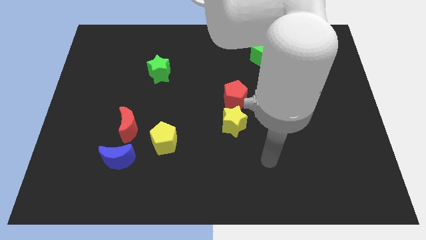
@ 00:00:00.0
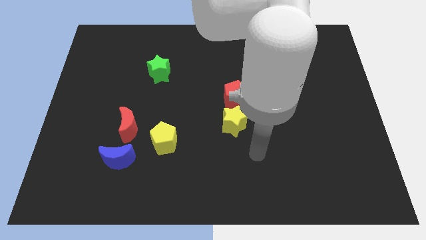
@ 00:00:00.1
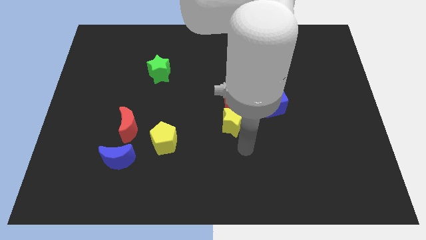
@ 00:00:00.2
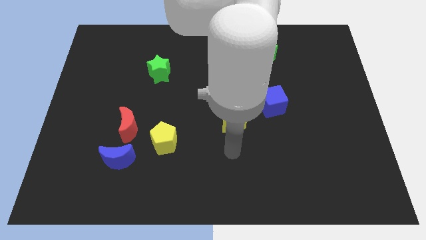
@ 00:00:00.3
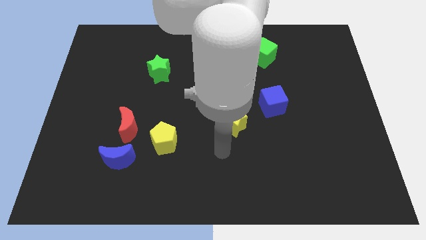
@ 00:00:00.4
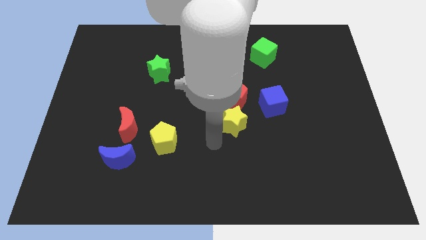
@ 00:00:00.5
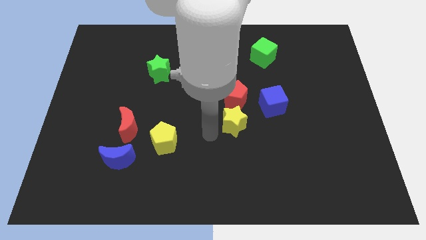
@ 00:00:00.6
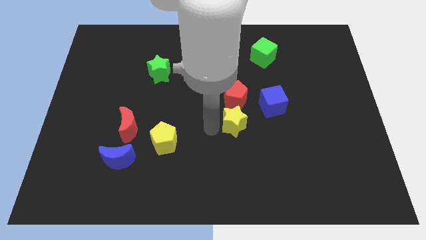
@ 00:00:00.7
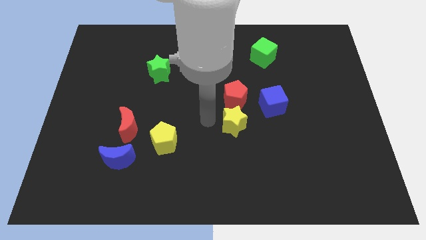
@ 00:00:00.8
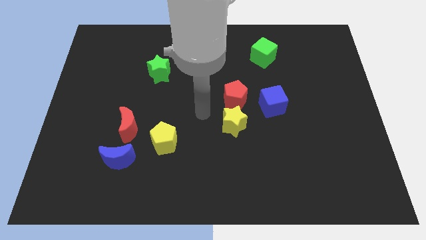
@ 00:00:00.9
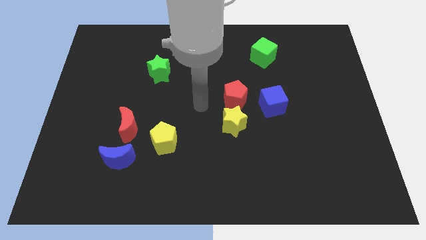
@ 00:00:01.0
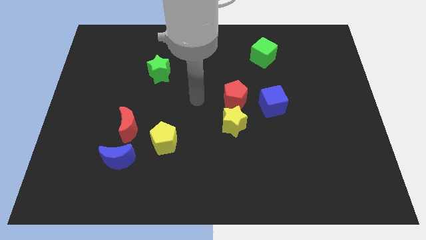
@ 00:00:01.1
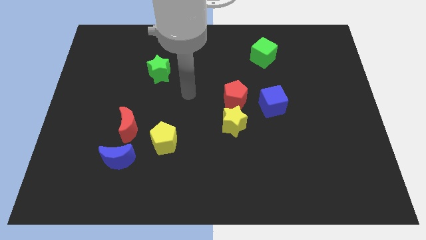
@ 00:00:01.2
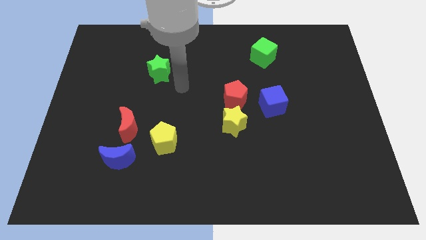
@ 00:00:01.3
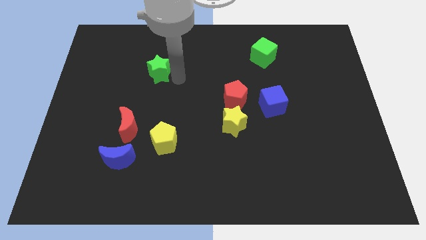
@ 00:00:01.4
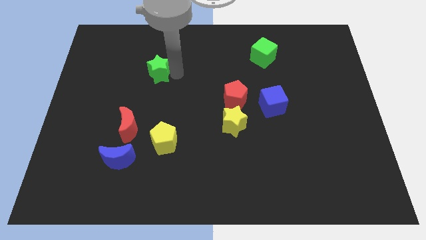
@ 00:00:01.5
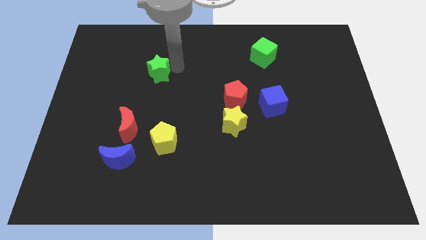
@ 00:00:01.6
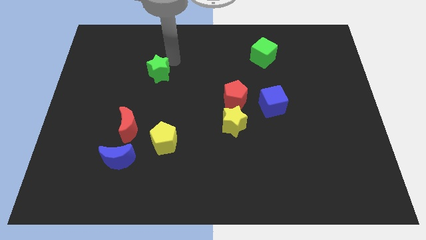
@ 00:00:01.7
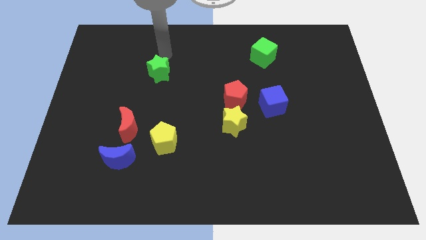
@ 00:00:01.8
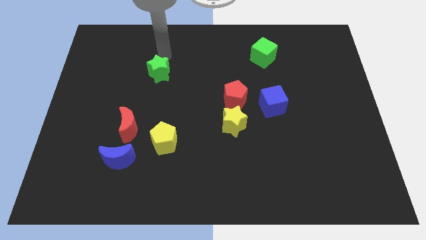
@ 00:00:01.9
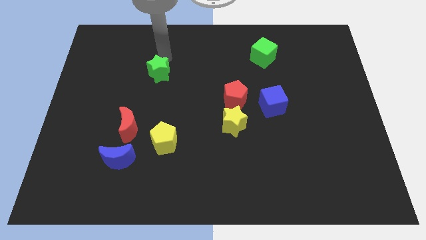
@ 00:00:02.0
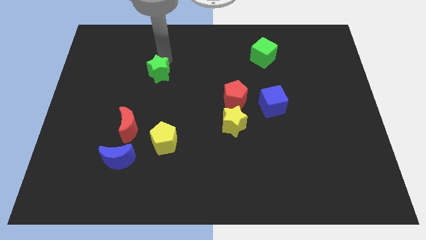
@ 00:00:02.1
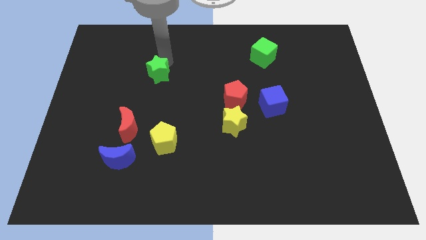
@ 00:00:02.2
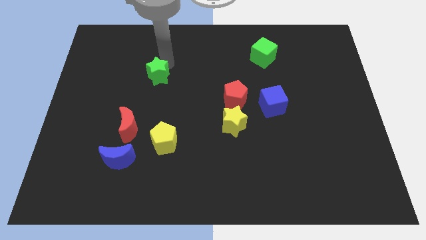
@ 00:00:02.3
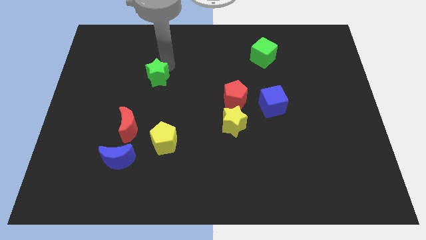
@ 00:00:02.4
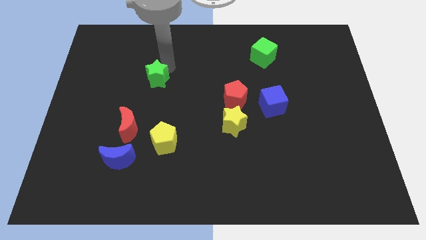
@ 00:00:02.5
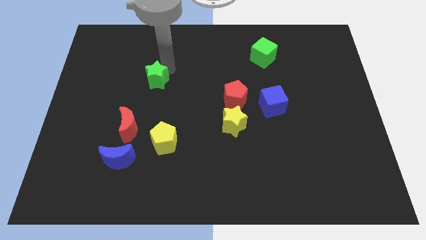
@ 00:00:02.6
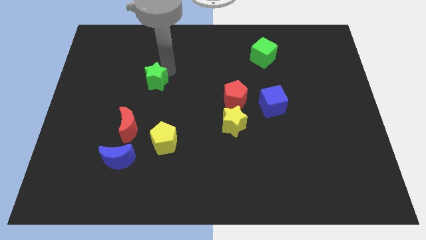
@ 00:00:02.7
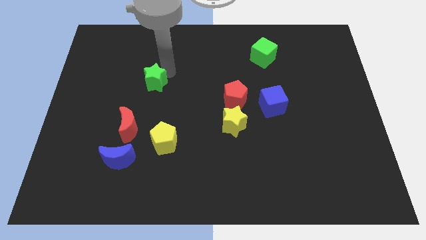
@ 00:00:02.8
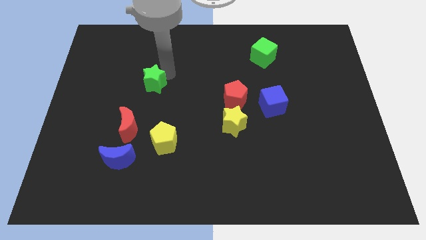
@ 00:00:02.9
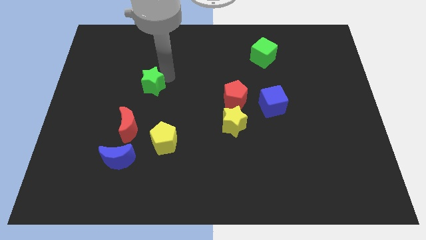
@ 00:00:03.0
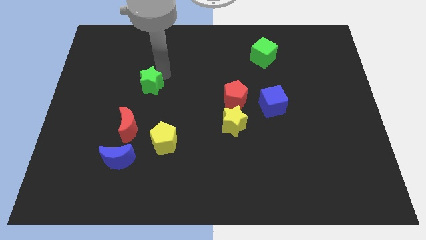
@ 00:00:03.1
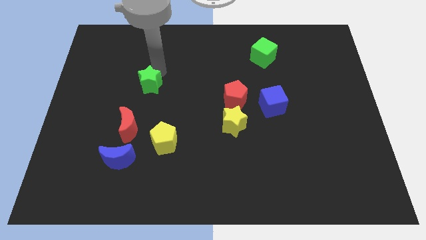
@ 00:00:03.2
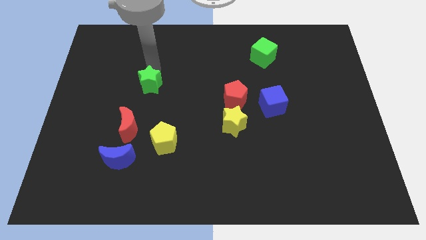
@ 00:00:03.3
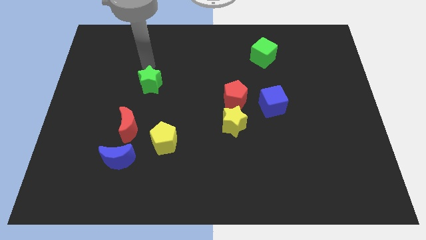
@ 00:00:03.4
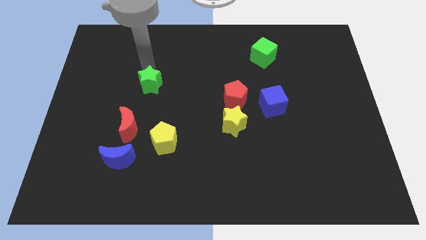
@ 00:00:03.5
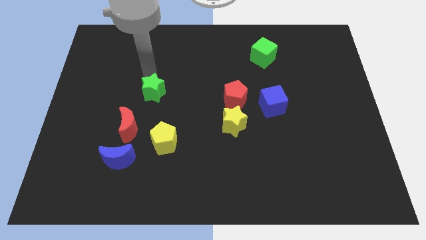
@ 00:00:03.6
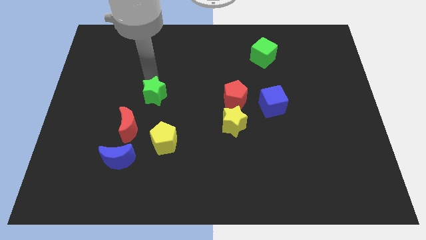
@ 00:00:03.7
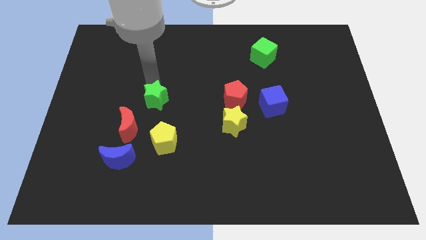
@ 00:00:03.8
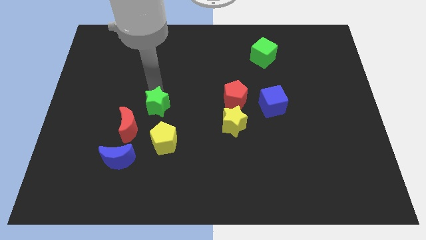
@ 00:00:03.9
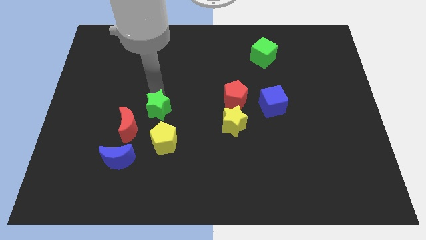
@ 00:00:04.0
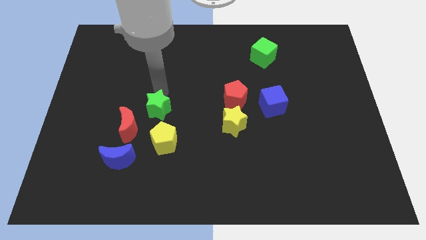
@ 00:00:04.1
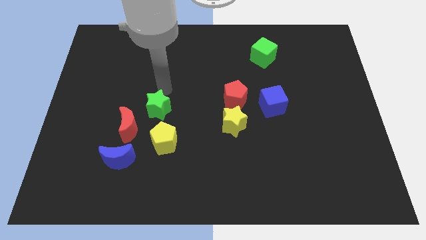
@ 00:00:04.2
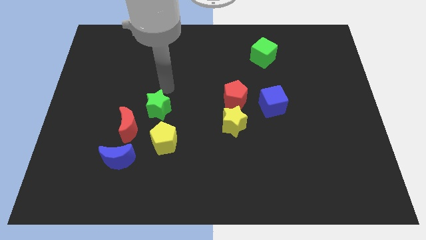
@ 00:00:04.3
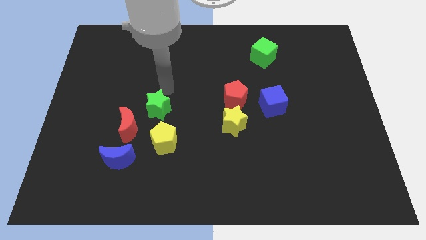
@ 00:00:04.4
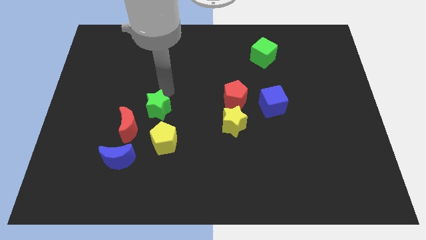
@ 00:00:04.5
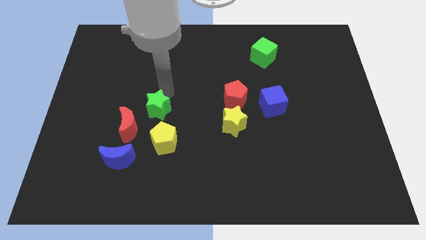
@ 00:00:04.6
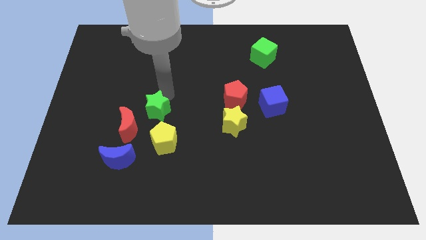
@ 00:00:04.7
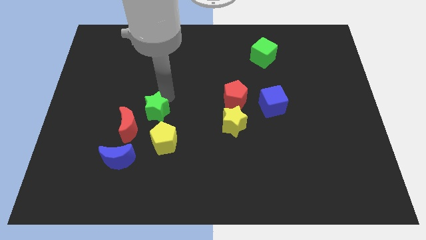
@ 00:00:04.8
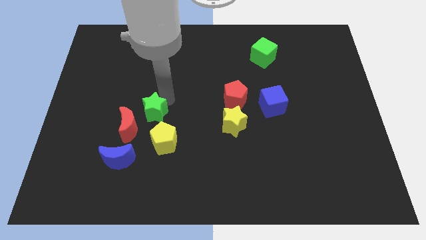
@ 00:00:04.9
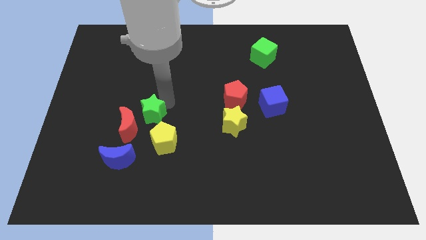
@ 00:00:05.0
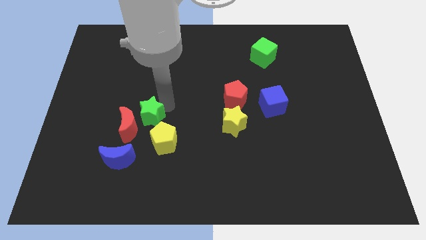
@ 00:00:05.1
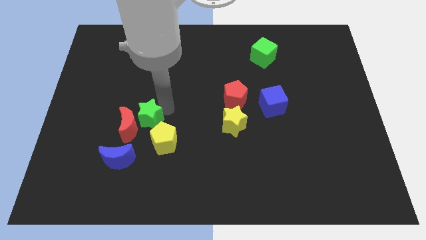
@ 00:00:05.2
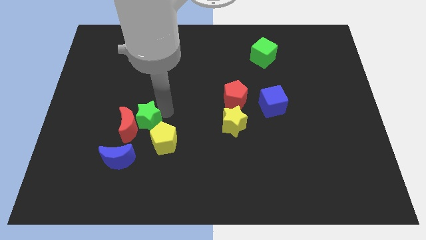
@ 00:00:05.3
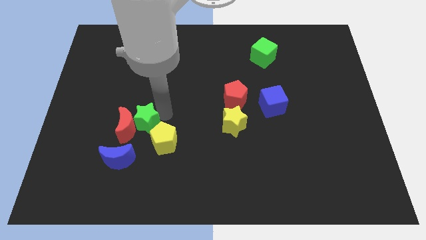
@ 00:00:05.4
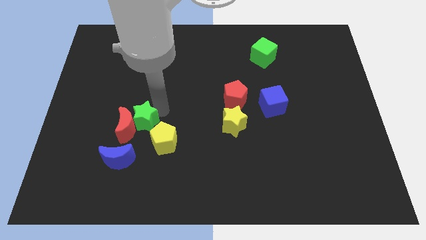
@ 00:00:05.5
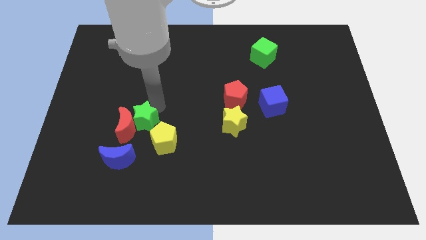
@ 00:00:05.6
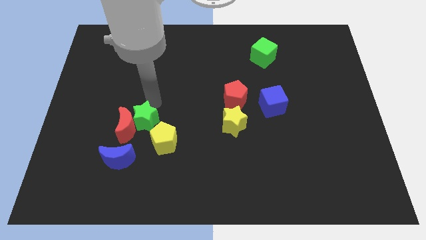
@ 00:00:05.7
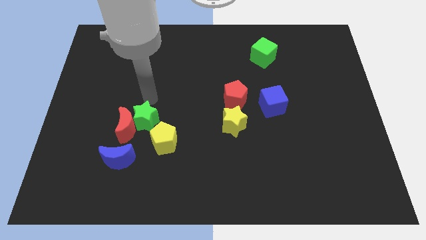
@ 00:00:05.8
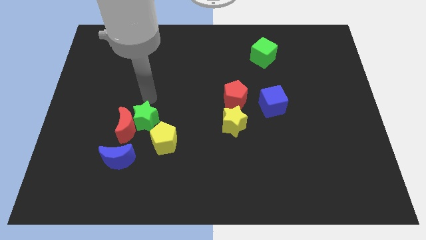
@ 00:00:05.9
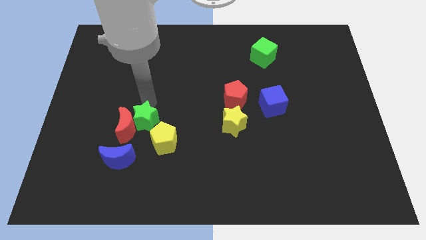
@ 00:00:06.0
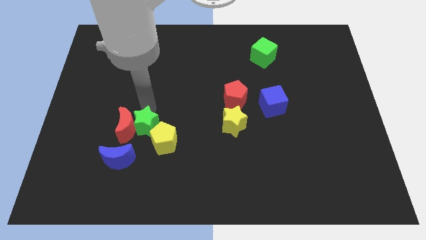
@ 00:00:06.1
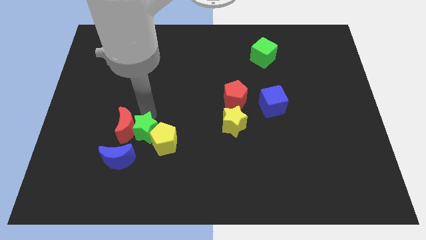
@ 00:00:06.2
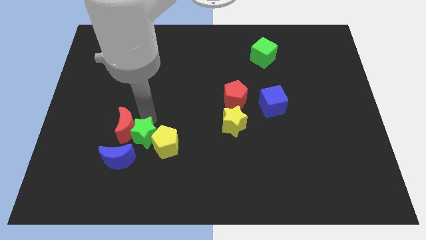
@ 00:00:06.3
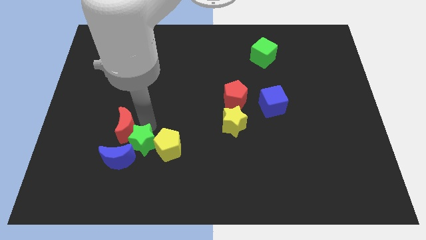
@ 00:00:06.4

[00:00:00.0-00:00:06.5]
put the green star to the bottom left side of the yellow pentagon
